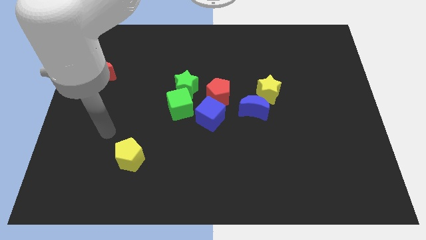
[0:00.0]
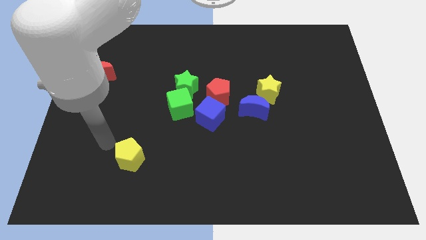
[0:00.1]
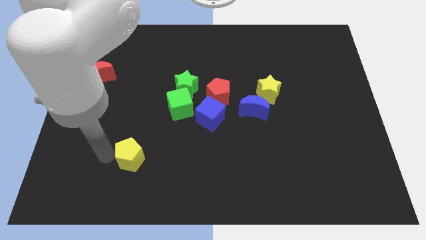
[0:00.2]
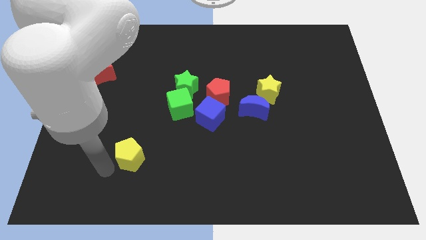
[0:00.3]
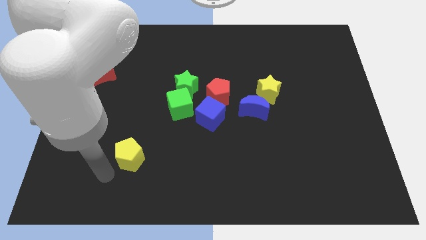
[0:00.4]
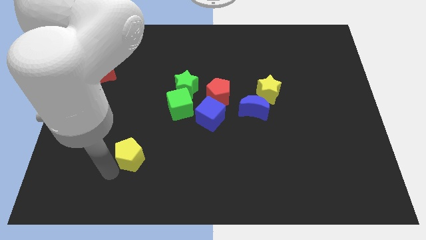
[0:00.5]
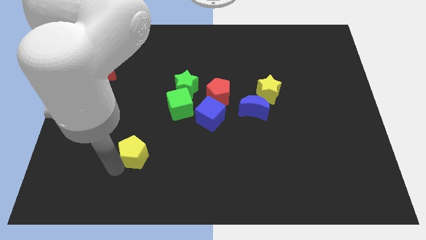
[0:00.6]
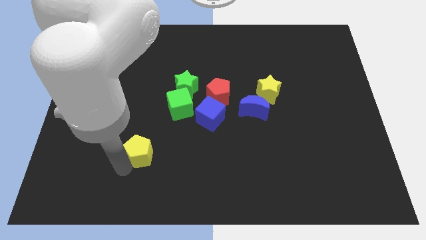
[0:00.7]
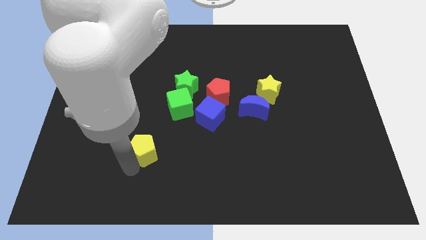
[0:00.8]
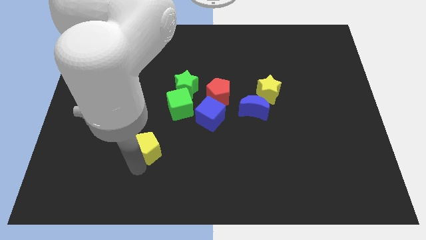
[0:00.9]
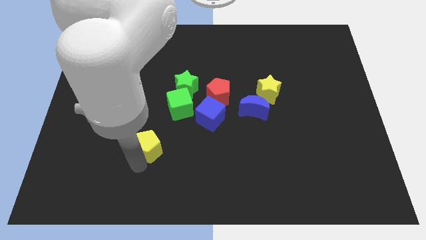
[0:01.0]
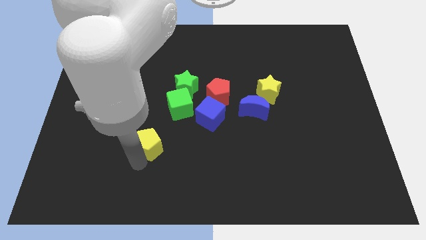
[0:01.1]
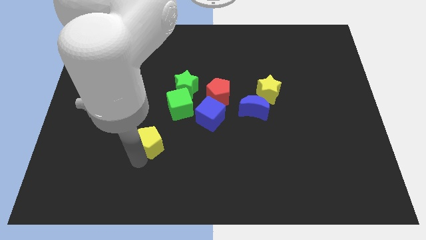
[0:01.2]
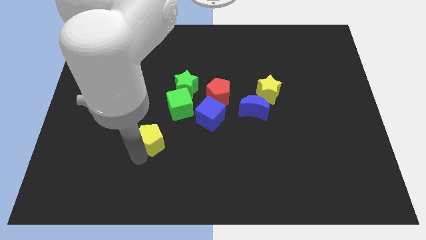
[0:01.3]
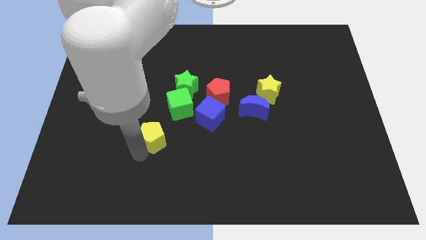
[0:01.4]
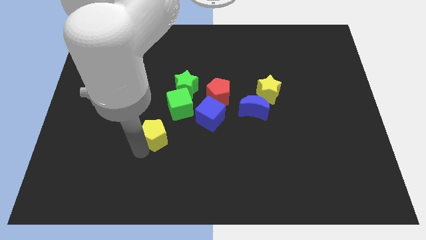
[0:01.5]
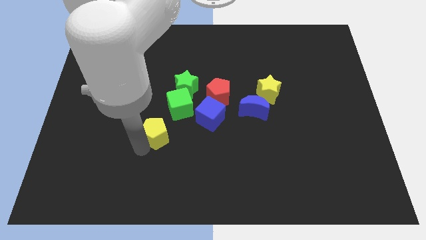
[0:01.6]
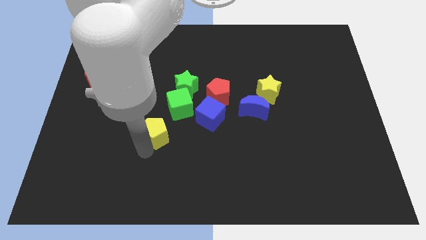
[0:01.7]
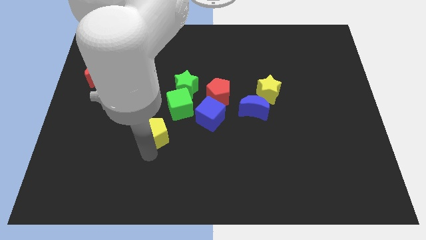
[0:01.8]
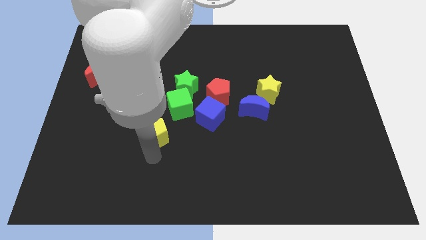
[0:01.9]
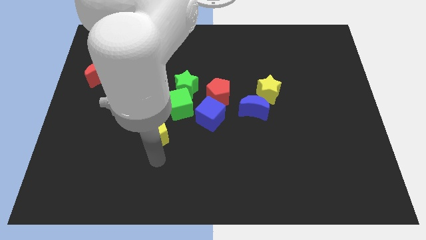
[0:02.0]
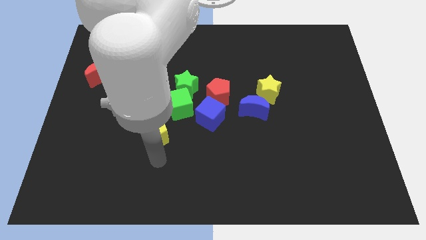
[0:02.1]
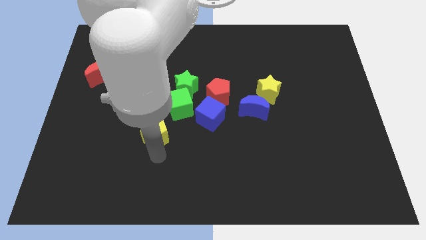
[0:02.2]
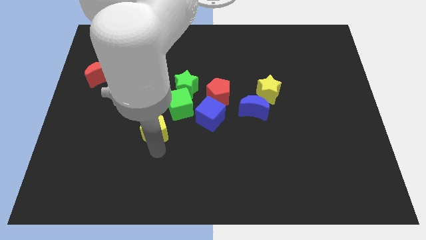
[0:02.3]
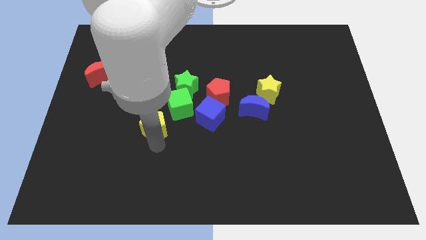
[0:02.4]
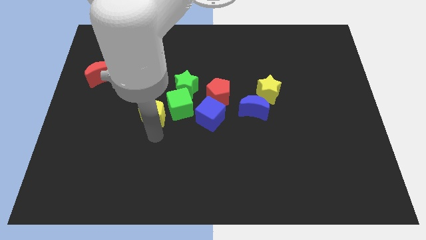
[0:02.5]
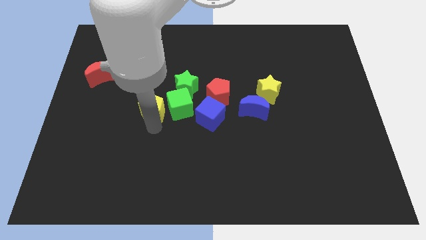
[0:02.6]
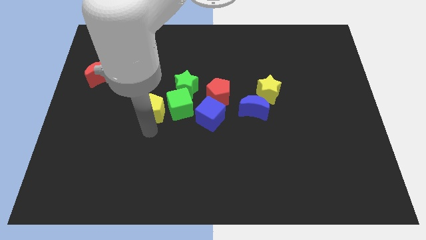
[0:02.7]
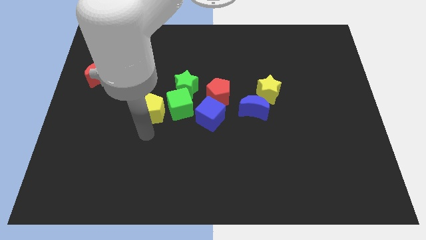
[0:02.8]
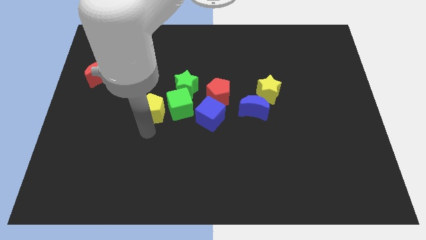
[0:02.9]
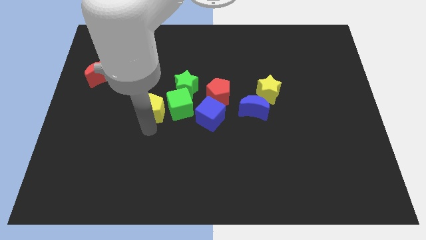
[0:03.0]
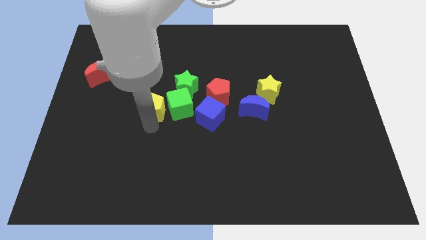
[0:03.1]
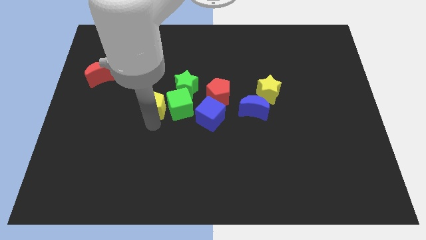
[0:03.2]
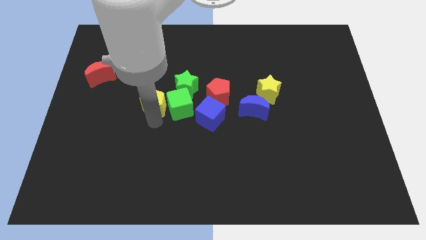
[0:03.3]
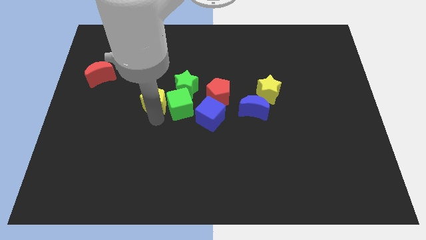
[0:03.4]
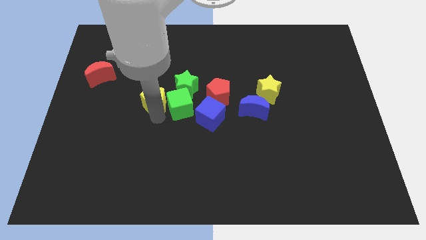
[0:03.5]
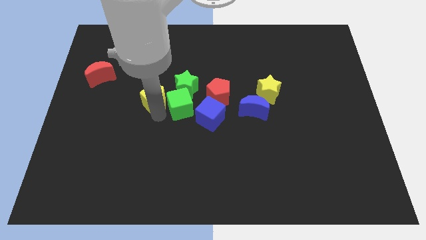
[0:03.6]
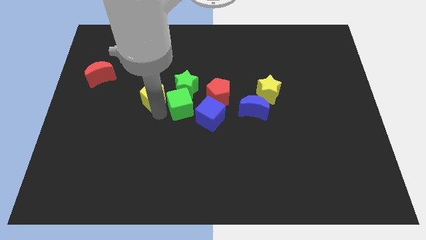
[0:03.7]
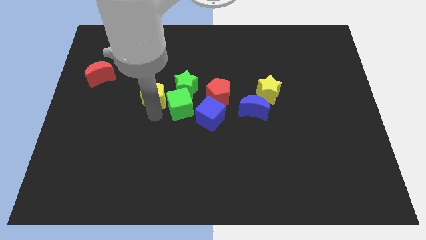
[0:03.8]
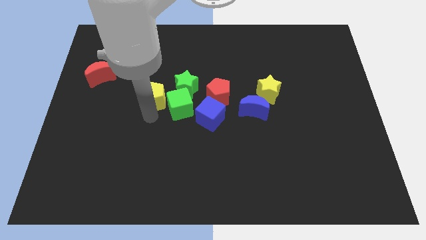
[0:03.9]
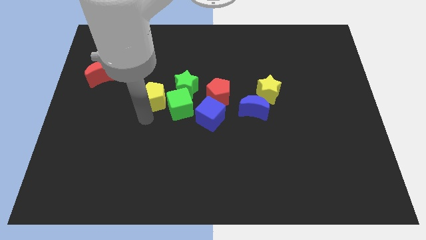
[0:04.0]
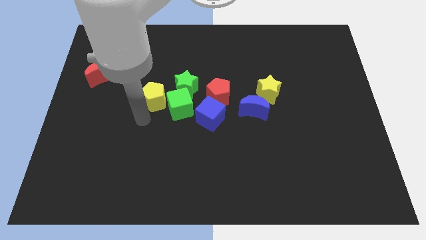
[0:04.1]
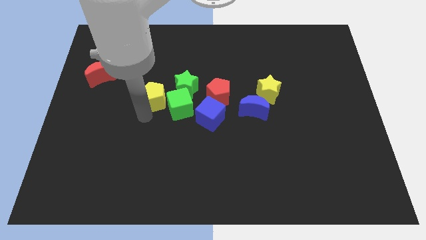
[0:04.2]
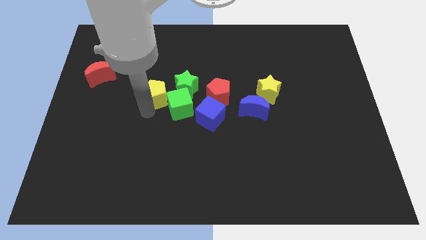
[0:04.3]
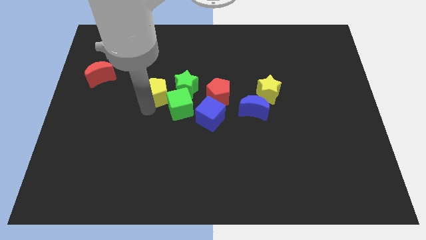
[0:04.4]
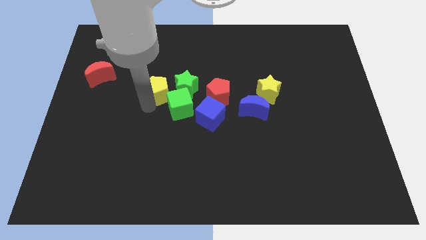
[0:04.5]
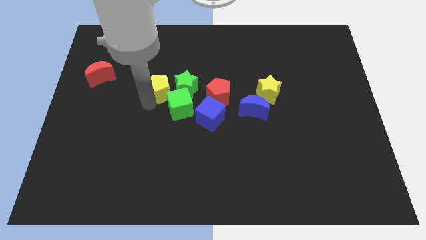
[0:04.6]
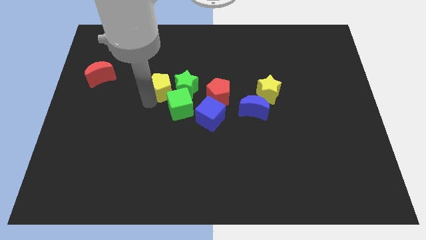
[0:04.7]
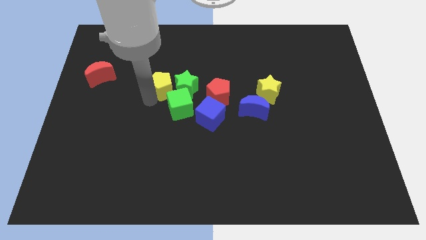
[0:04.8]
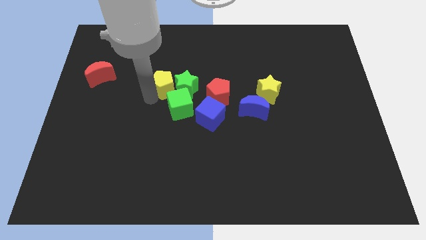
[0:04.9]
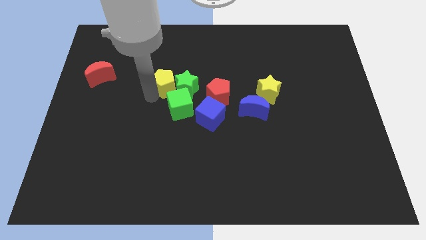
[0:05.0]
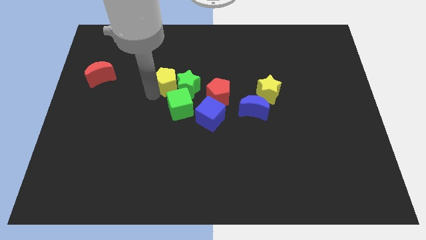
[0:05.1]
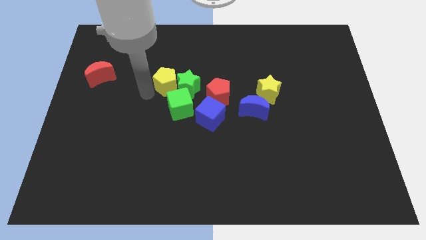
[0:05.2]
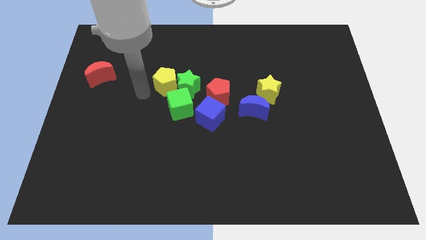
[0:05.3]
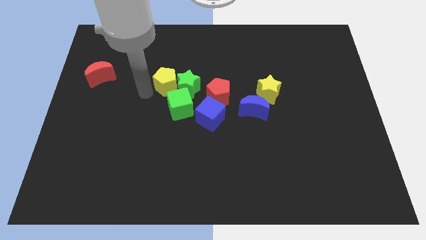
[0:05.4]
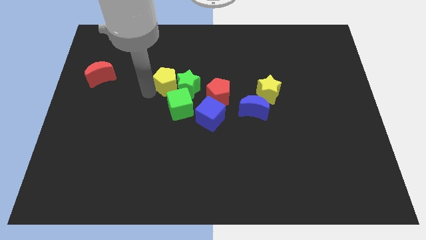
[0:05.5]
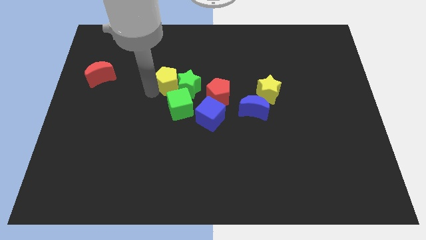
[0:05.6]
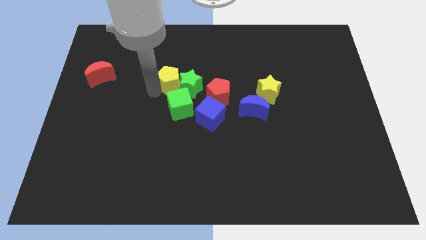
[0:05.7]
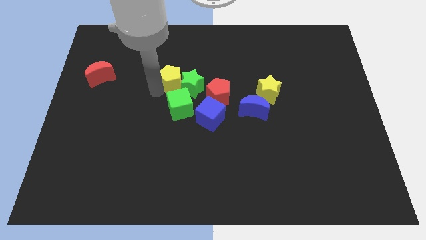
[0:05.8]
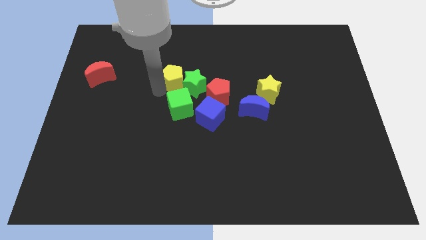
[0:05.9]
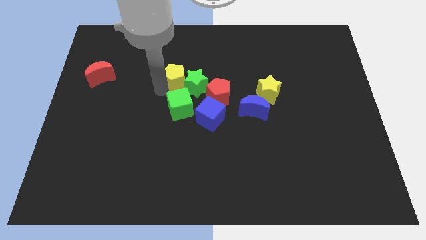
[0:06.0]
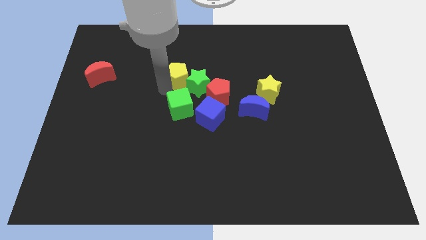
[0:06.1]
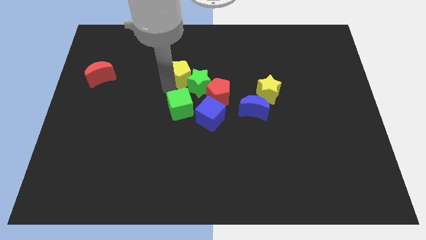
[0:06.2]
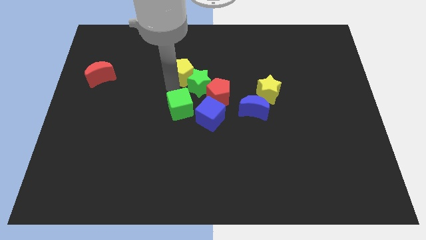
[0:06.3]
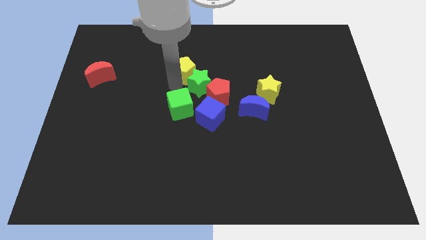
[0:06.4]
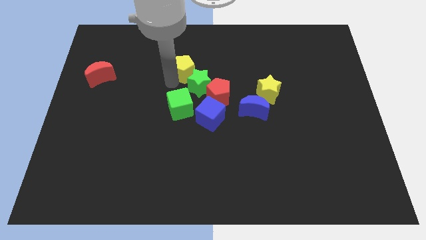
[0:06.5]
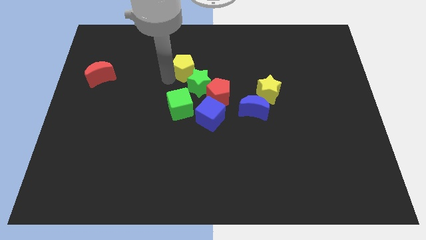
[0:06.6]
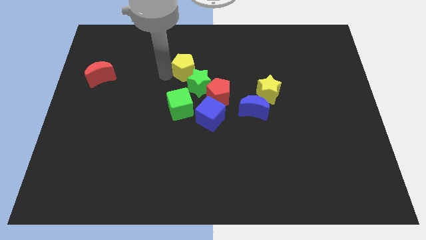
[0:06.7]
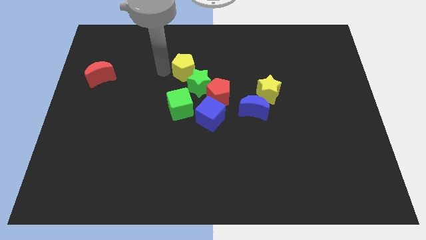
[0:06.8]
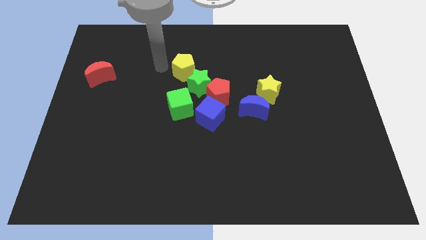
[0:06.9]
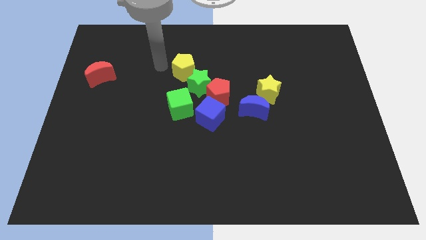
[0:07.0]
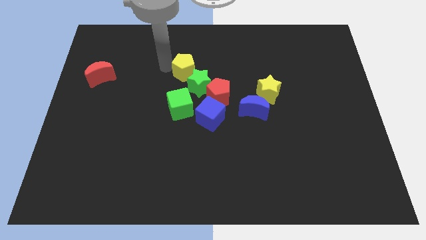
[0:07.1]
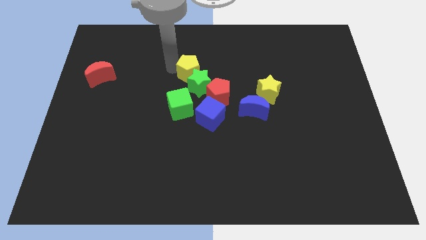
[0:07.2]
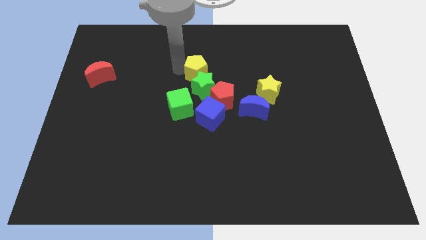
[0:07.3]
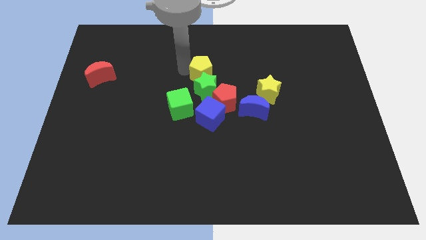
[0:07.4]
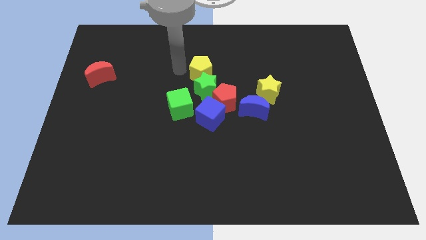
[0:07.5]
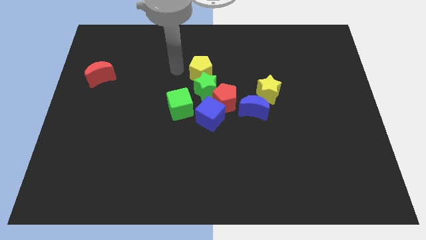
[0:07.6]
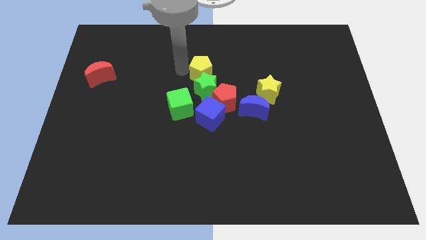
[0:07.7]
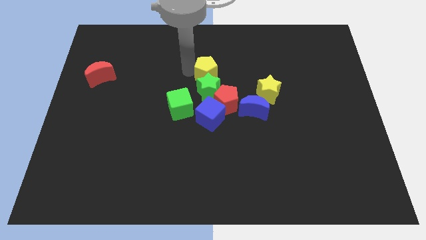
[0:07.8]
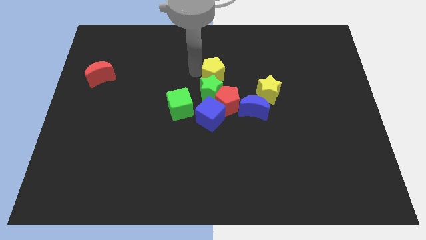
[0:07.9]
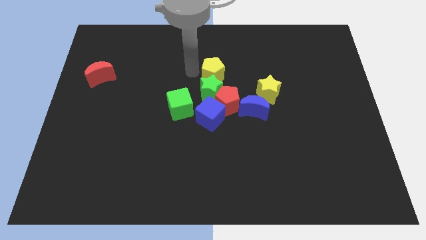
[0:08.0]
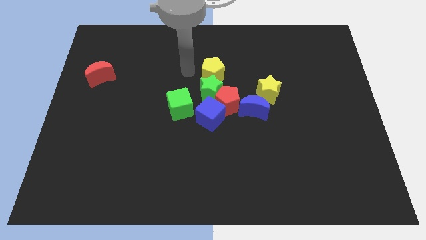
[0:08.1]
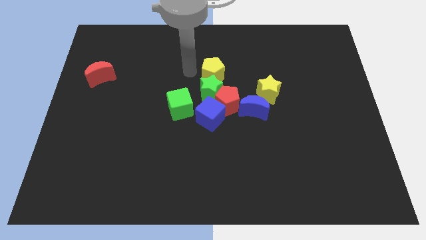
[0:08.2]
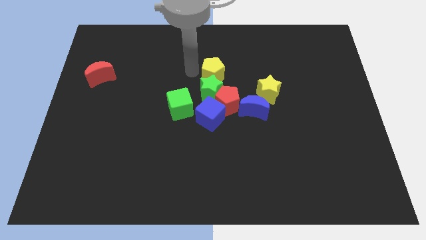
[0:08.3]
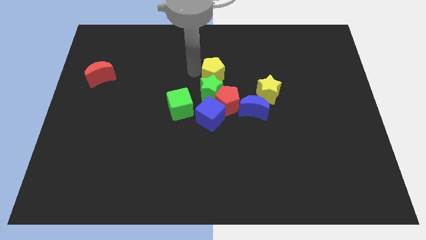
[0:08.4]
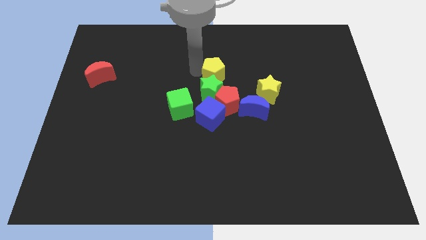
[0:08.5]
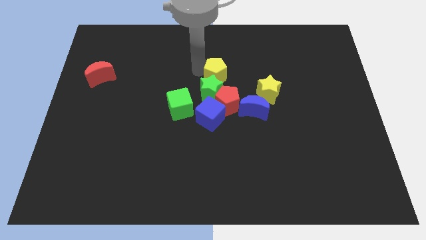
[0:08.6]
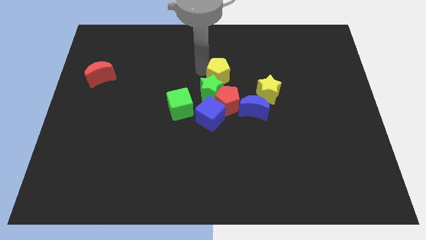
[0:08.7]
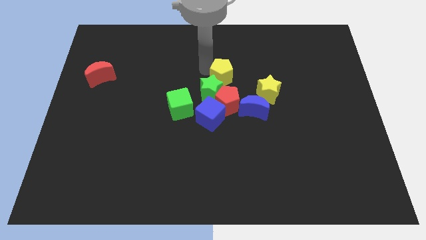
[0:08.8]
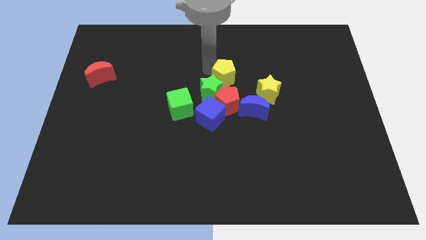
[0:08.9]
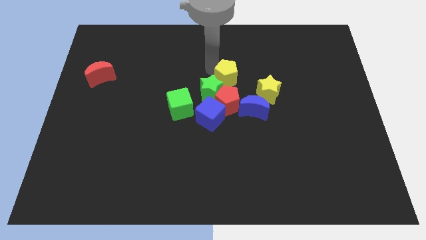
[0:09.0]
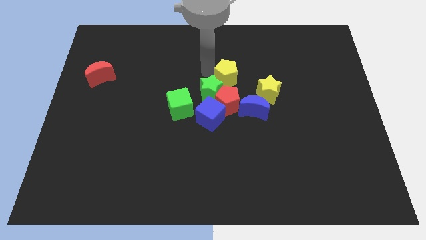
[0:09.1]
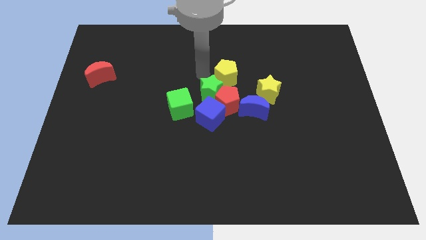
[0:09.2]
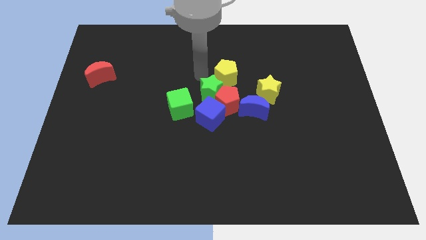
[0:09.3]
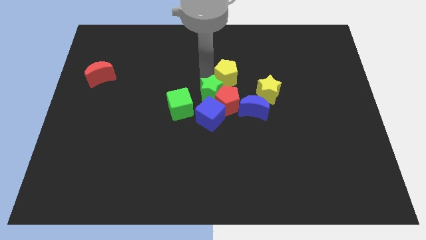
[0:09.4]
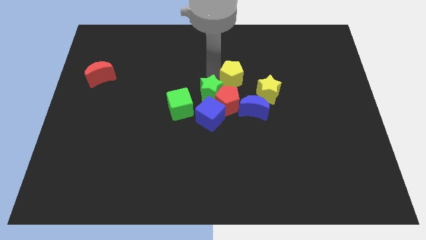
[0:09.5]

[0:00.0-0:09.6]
move the yellow pentagon above the blue moon
